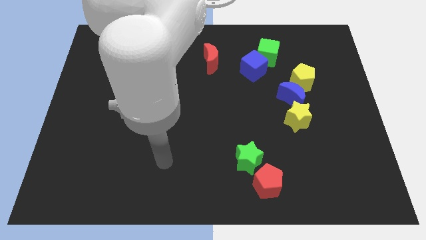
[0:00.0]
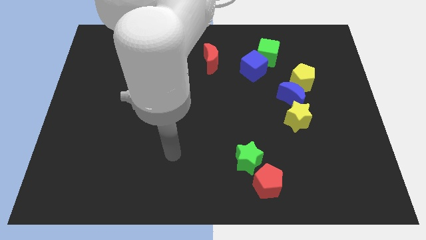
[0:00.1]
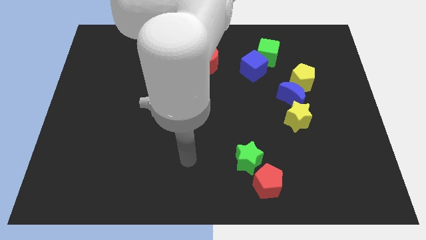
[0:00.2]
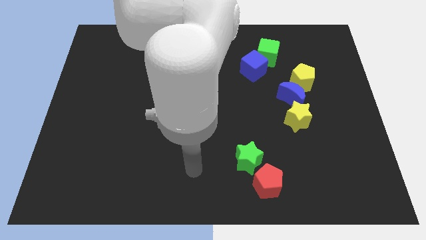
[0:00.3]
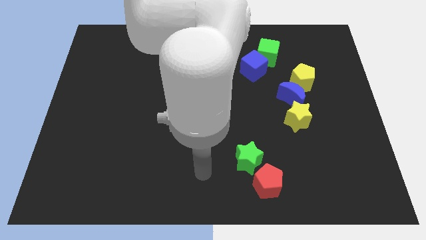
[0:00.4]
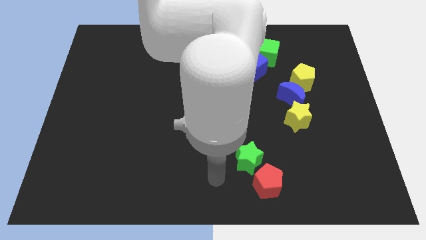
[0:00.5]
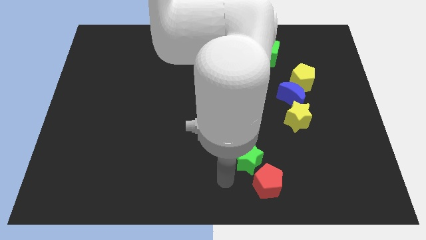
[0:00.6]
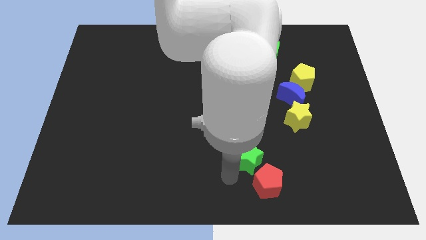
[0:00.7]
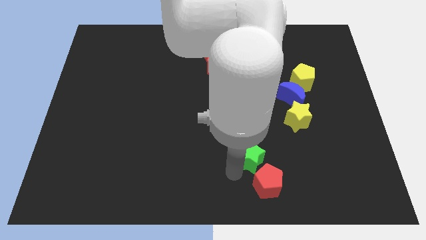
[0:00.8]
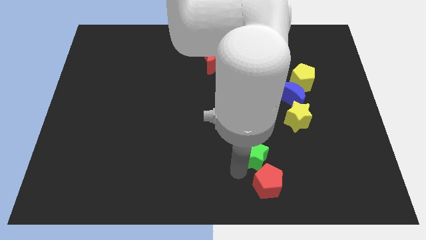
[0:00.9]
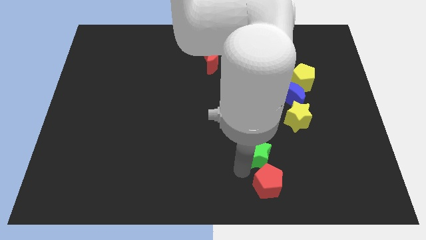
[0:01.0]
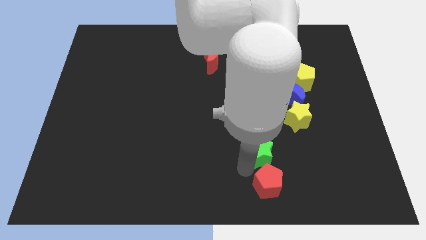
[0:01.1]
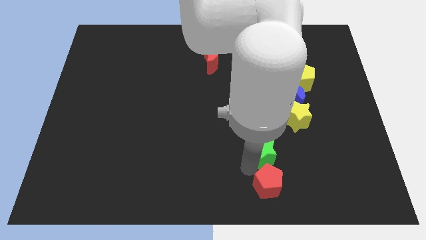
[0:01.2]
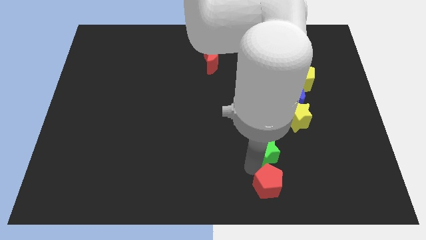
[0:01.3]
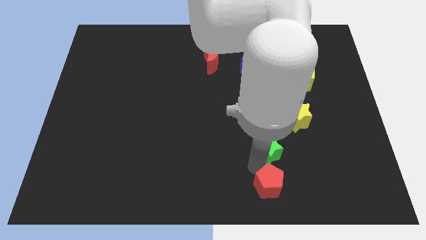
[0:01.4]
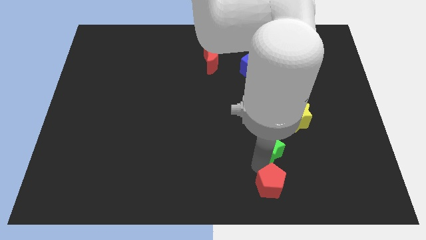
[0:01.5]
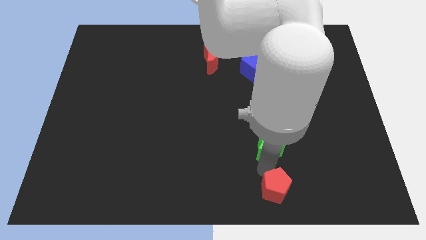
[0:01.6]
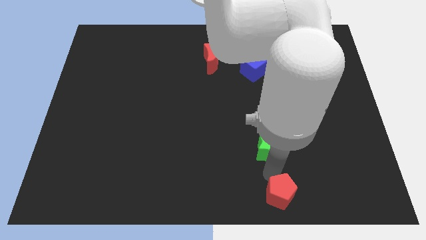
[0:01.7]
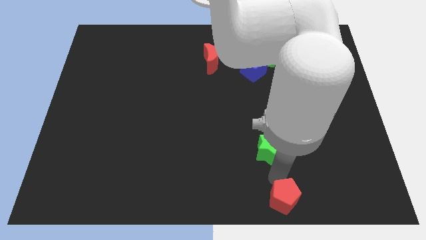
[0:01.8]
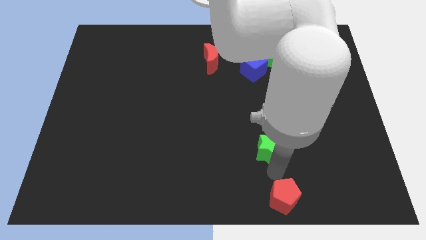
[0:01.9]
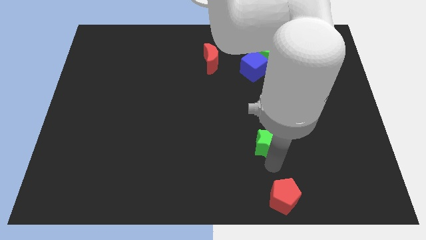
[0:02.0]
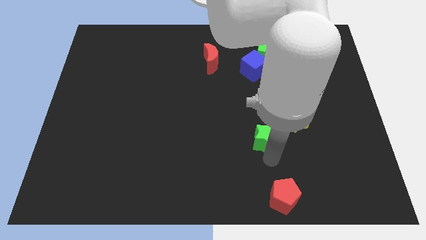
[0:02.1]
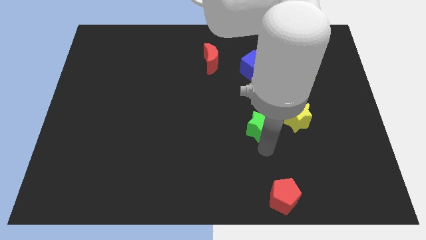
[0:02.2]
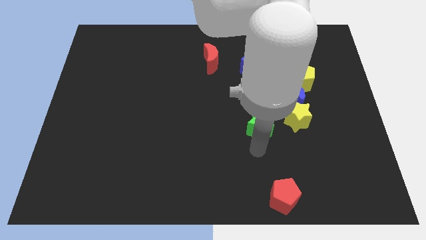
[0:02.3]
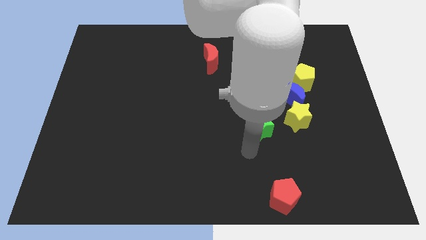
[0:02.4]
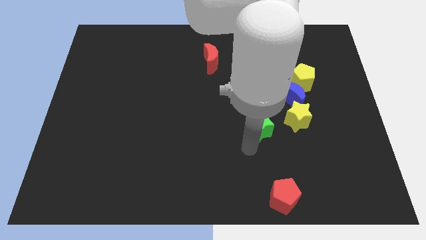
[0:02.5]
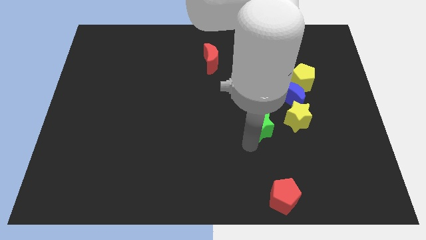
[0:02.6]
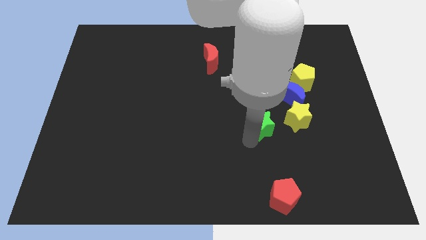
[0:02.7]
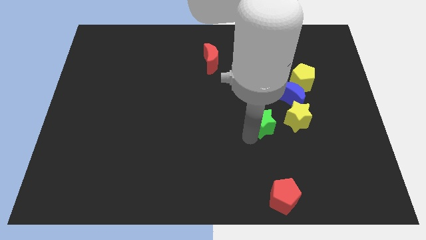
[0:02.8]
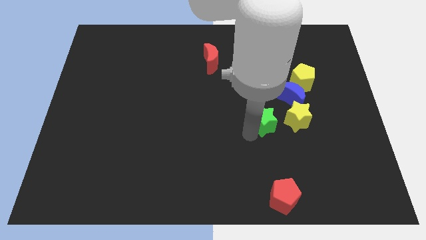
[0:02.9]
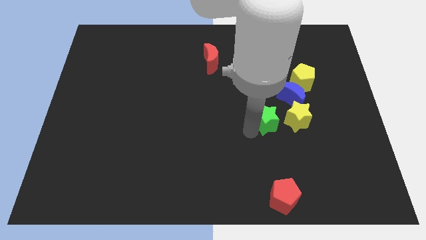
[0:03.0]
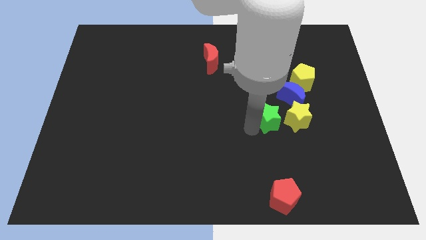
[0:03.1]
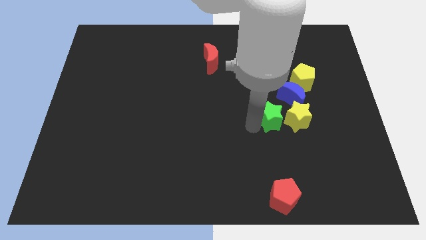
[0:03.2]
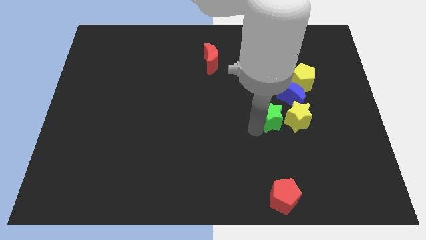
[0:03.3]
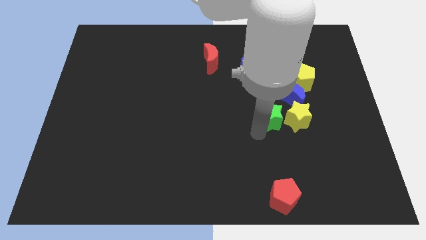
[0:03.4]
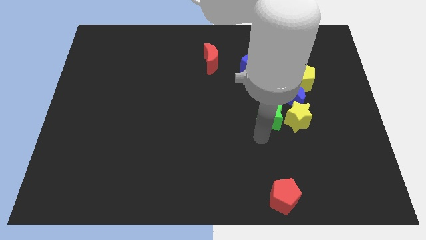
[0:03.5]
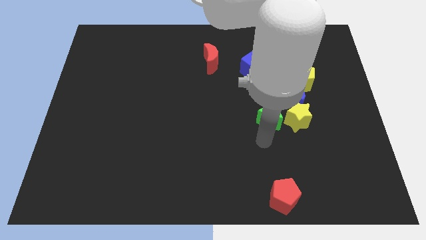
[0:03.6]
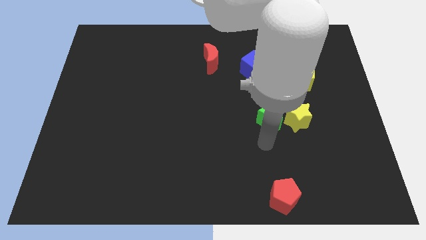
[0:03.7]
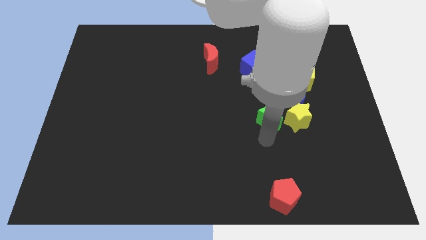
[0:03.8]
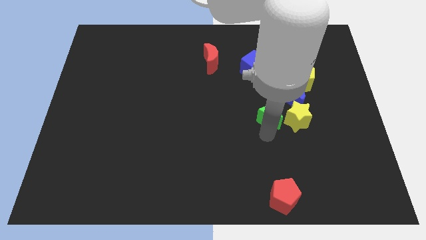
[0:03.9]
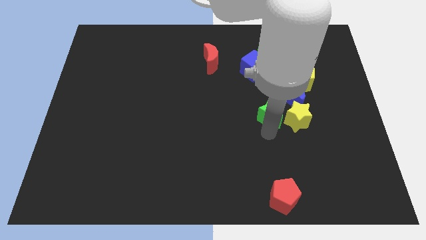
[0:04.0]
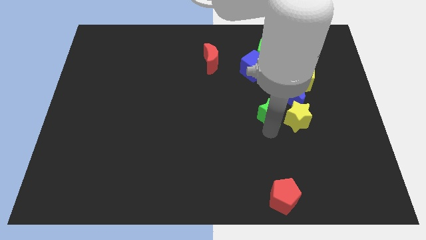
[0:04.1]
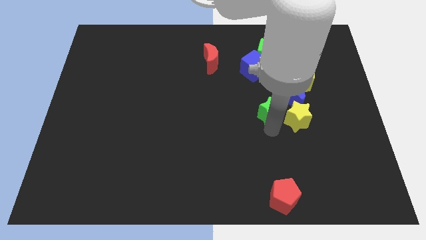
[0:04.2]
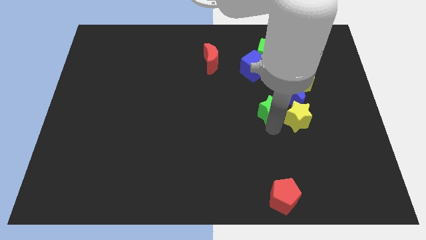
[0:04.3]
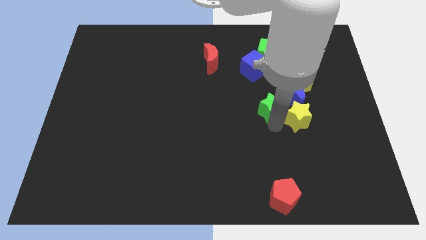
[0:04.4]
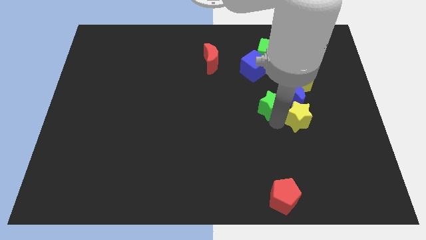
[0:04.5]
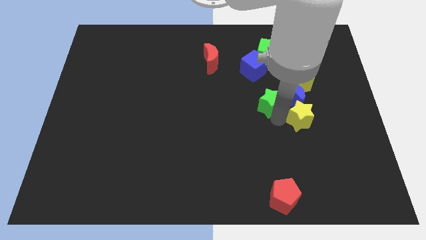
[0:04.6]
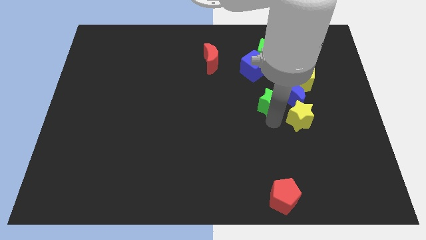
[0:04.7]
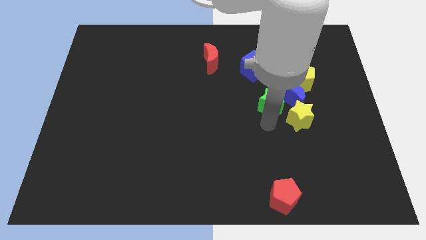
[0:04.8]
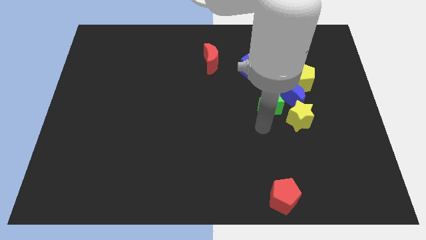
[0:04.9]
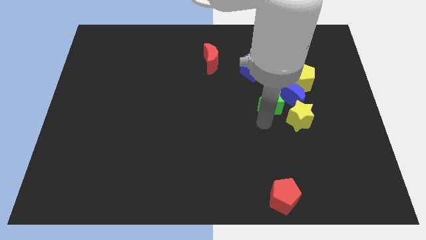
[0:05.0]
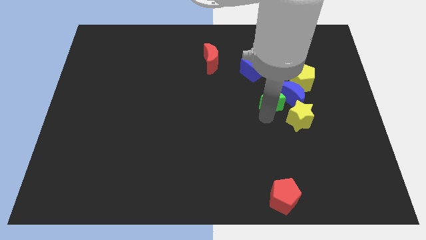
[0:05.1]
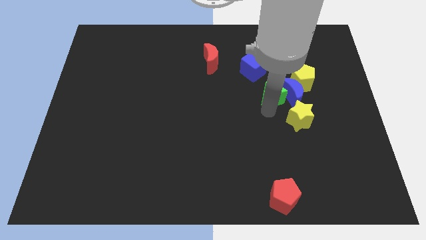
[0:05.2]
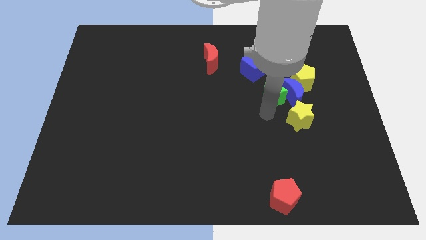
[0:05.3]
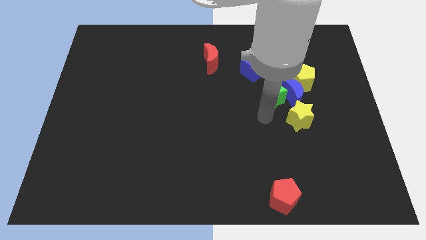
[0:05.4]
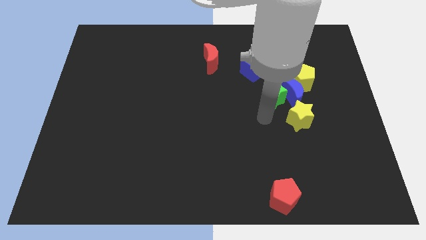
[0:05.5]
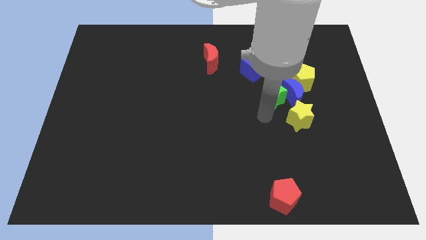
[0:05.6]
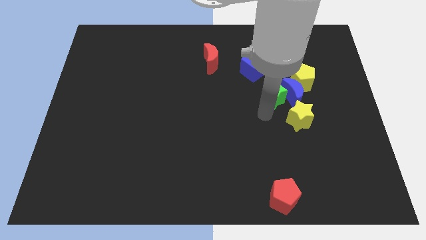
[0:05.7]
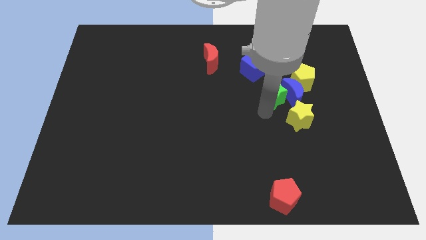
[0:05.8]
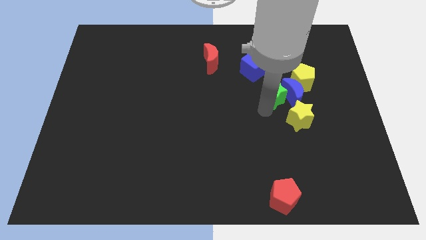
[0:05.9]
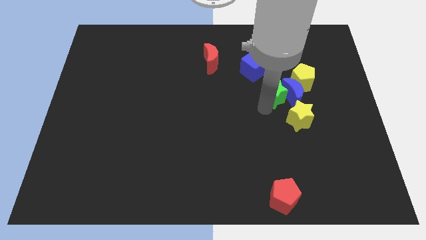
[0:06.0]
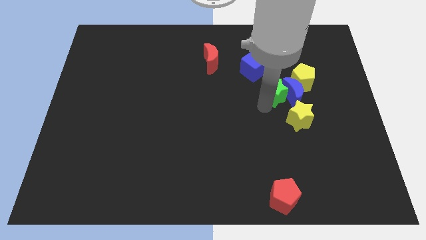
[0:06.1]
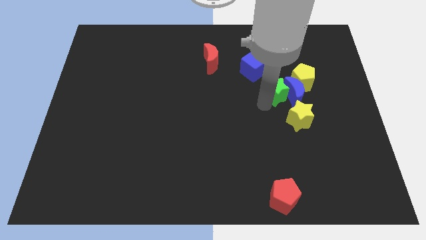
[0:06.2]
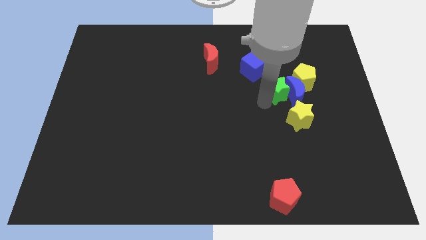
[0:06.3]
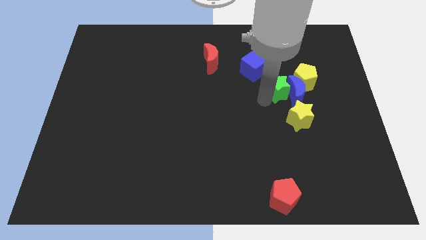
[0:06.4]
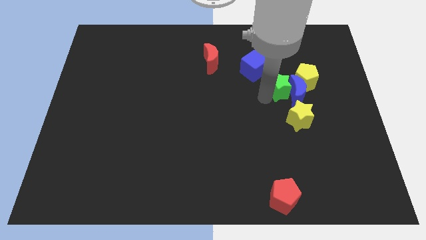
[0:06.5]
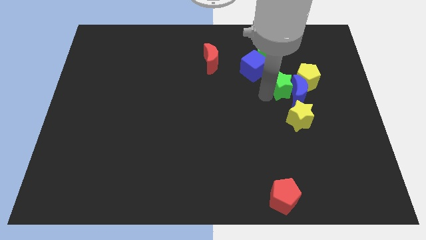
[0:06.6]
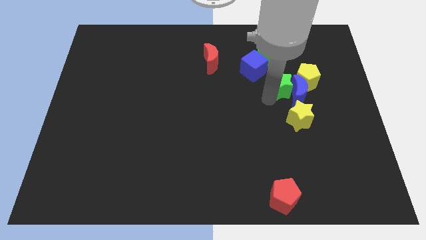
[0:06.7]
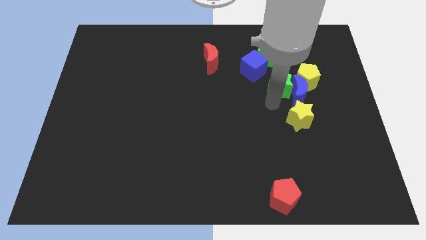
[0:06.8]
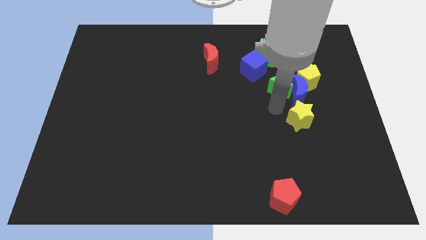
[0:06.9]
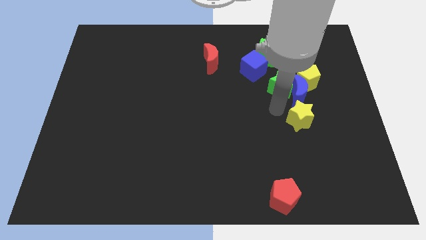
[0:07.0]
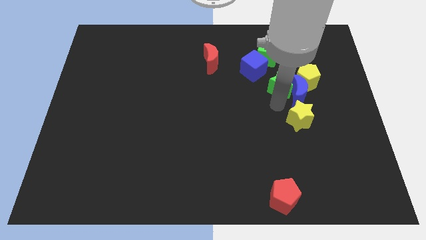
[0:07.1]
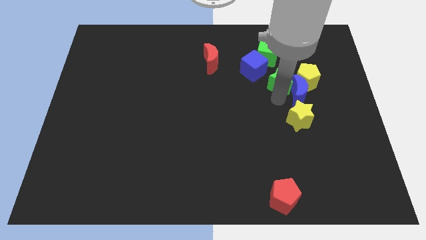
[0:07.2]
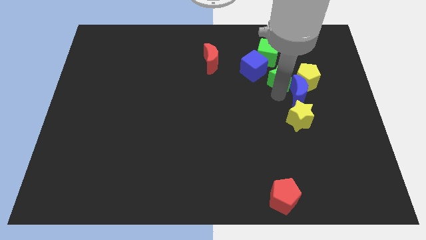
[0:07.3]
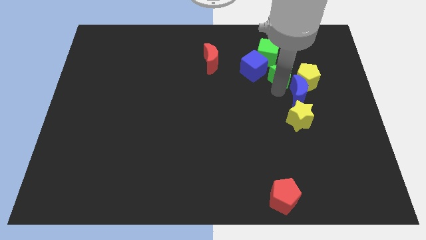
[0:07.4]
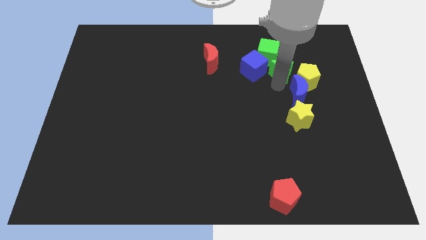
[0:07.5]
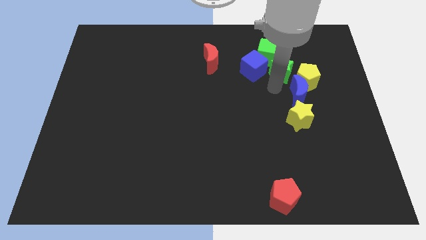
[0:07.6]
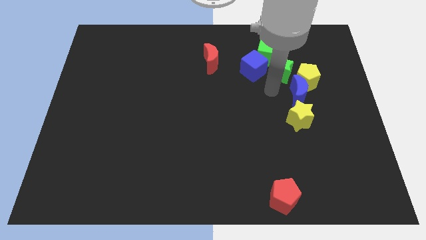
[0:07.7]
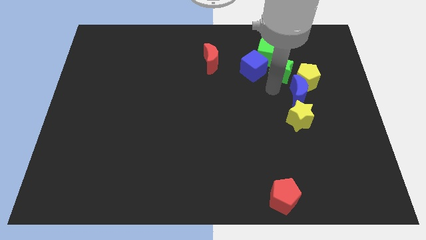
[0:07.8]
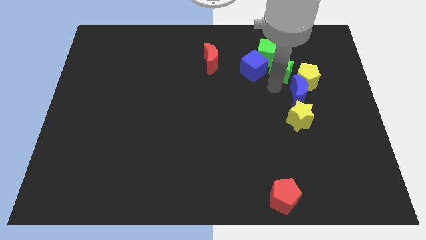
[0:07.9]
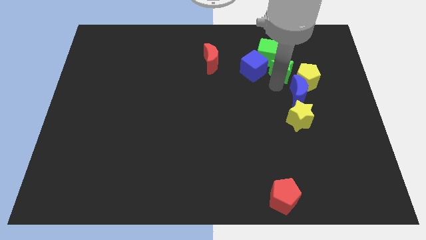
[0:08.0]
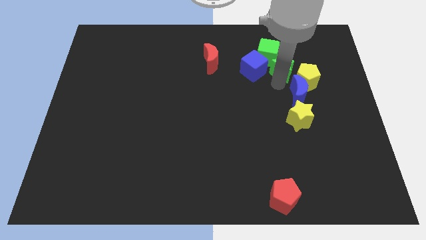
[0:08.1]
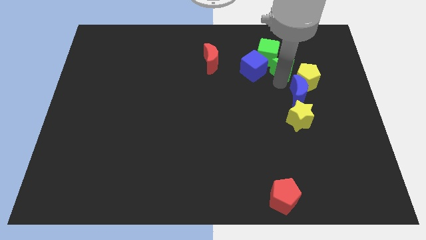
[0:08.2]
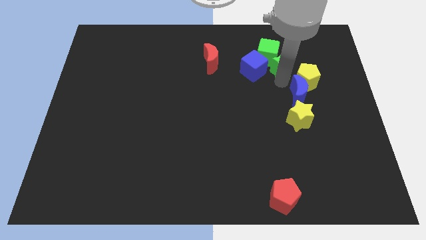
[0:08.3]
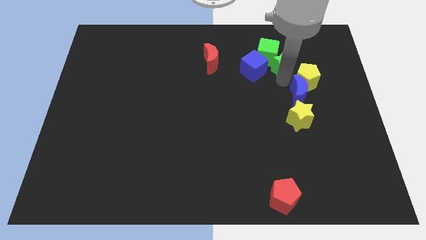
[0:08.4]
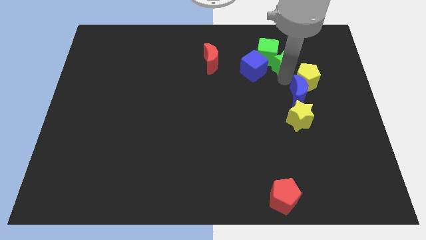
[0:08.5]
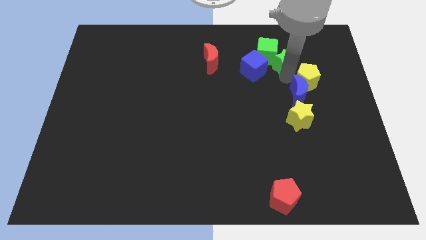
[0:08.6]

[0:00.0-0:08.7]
move the green star to the top right side of the blue cube
